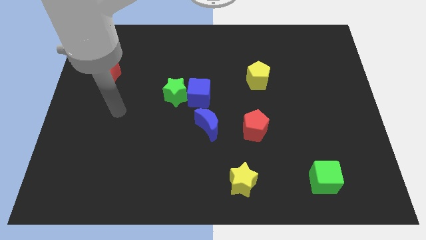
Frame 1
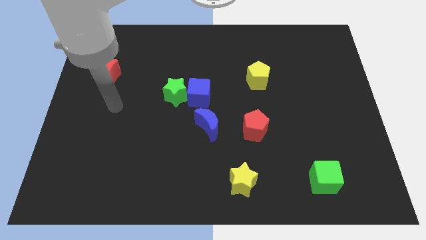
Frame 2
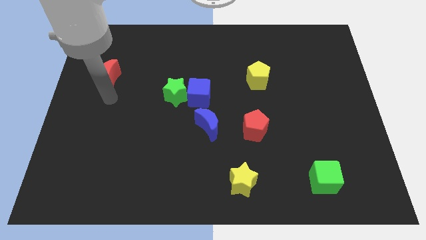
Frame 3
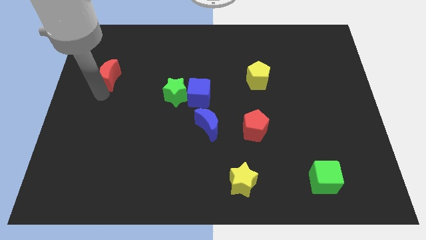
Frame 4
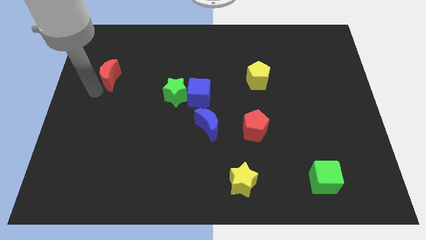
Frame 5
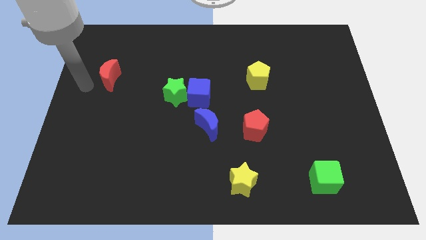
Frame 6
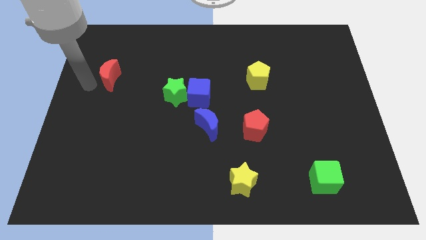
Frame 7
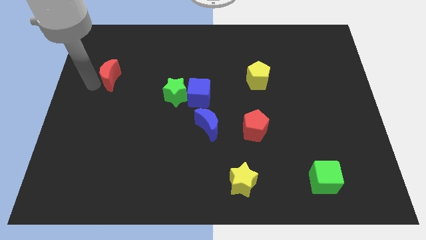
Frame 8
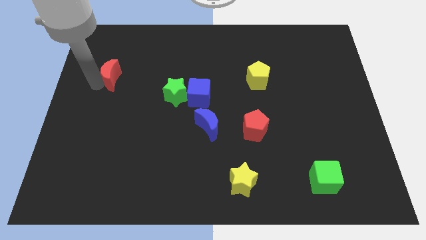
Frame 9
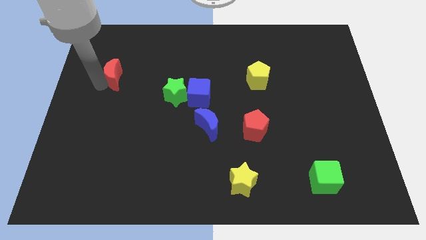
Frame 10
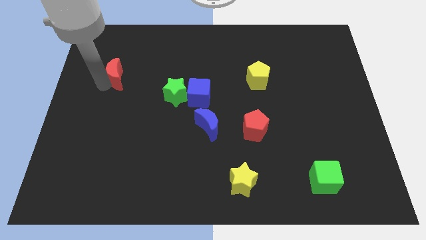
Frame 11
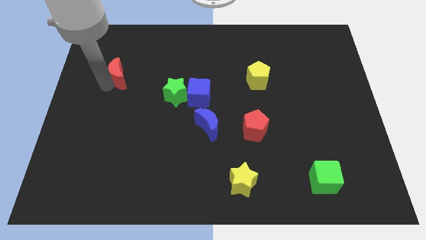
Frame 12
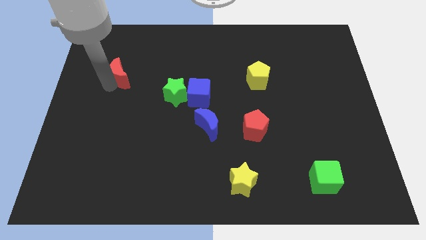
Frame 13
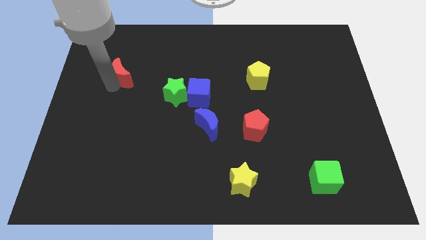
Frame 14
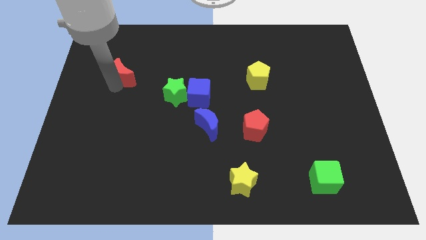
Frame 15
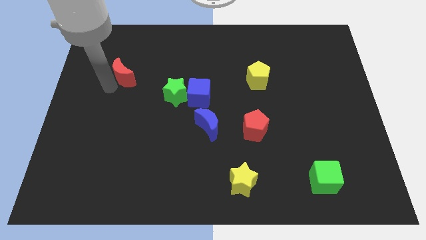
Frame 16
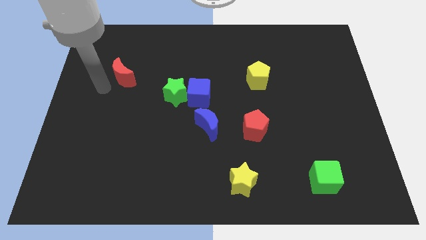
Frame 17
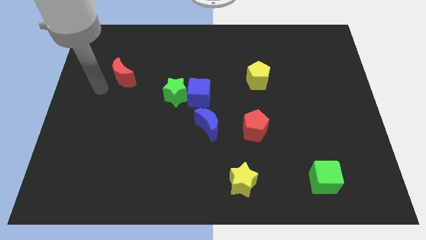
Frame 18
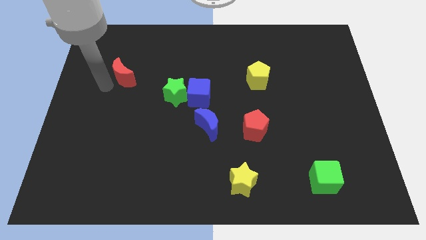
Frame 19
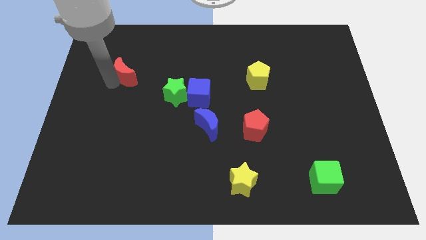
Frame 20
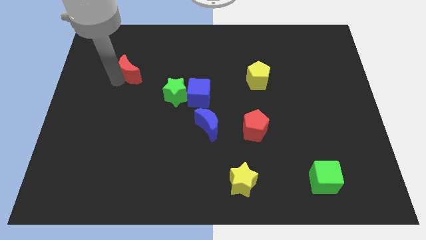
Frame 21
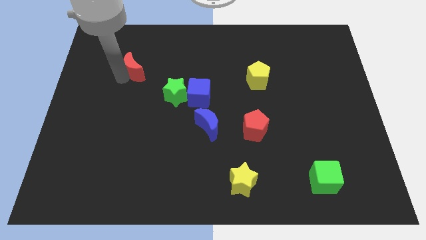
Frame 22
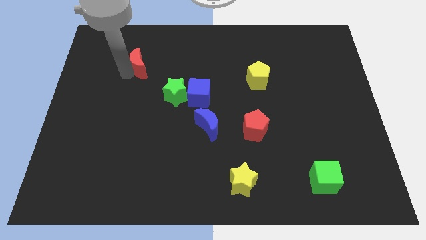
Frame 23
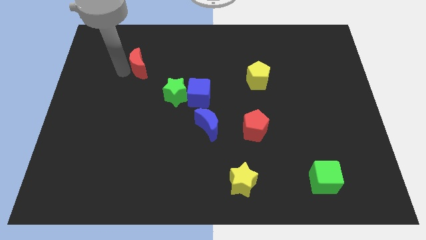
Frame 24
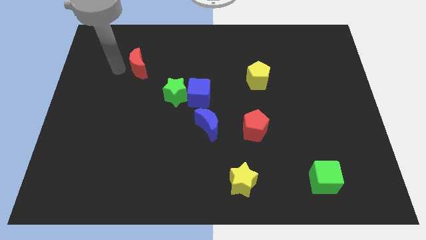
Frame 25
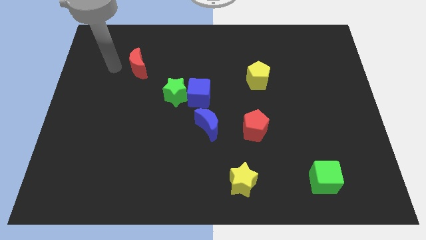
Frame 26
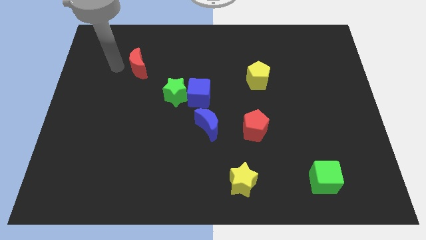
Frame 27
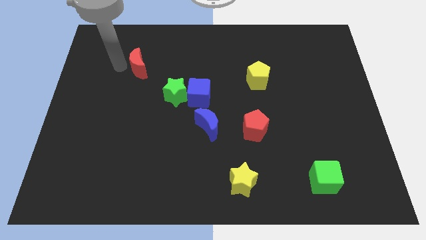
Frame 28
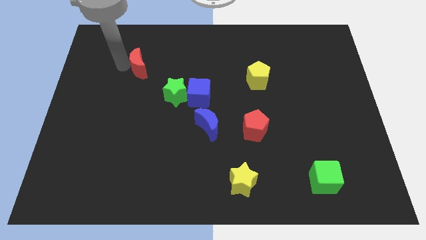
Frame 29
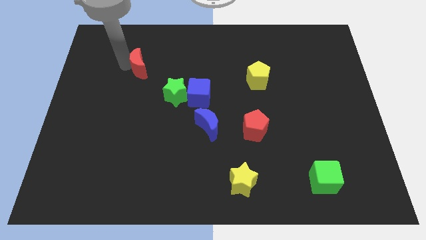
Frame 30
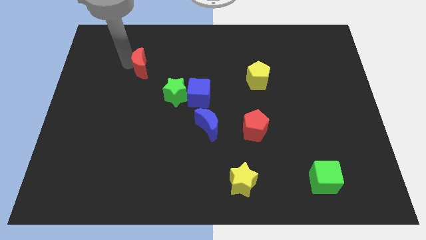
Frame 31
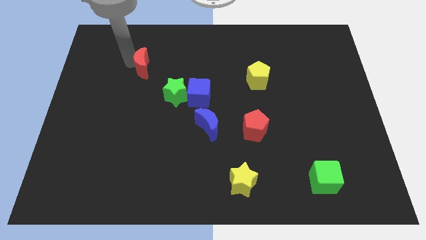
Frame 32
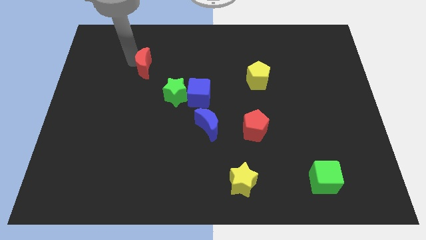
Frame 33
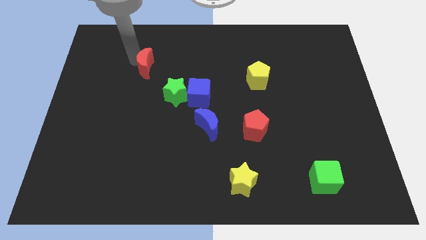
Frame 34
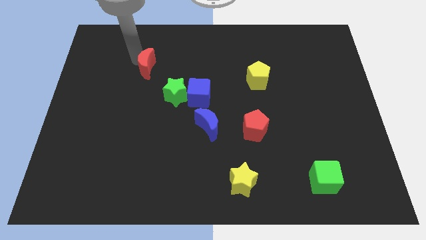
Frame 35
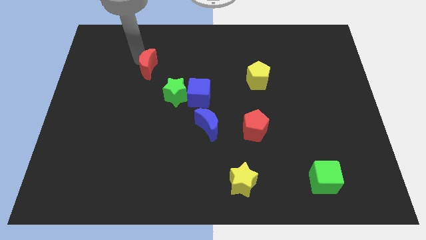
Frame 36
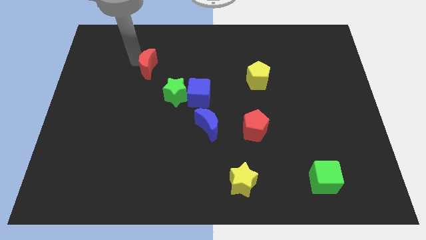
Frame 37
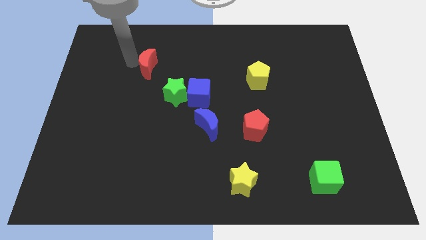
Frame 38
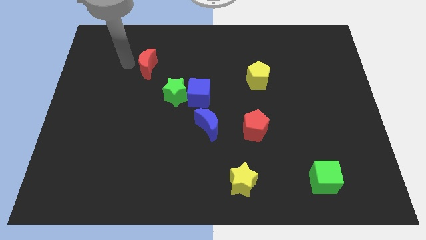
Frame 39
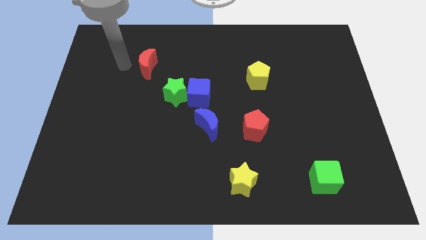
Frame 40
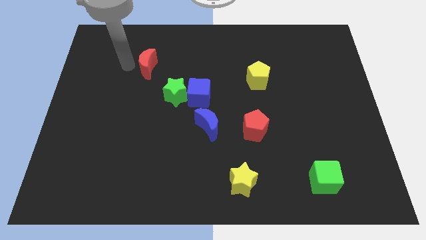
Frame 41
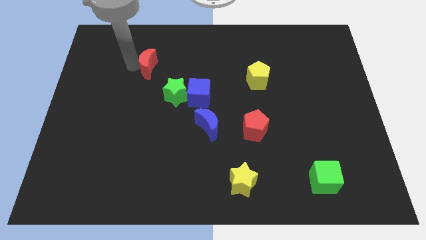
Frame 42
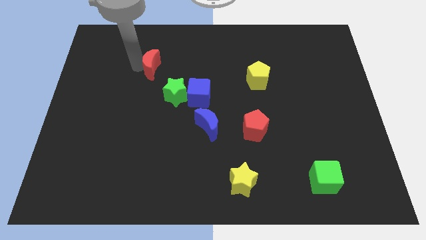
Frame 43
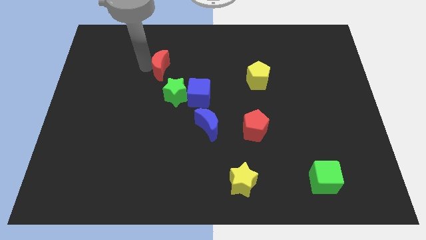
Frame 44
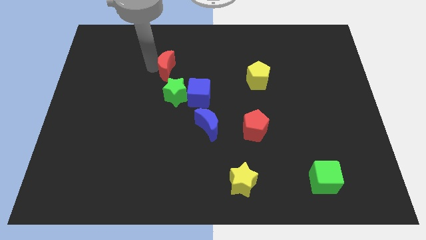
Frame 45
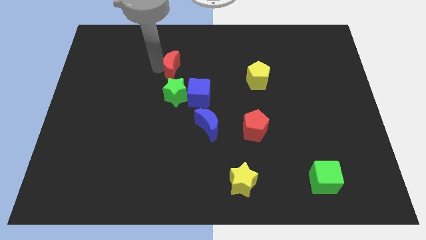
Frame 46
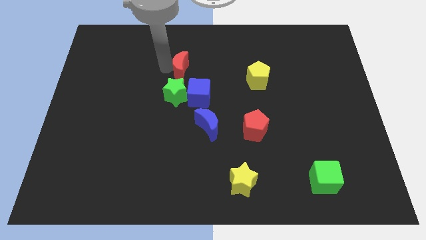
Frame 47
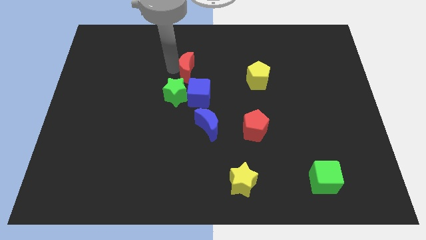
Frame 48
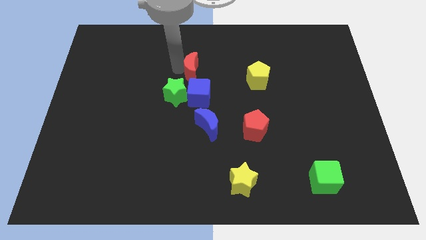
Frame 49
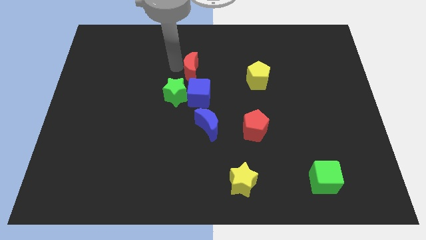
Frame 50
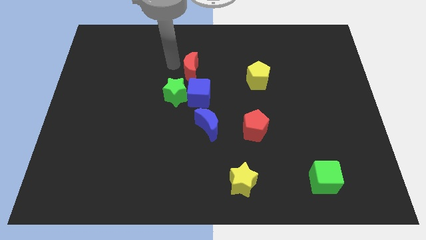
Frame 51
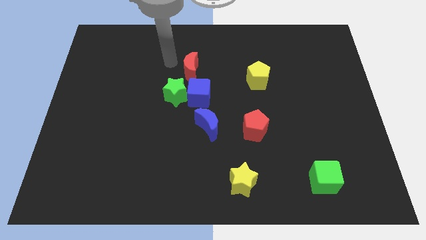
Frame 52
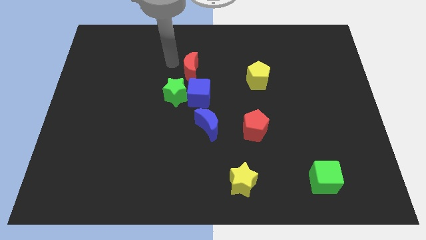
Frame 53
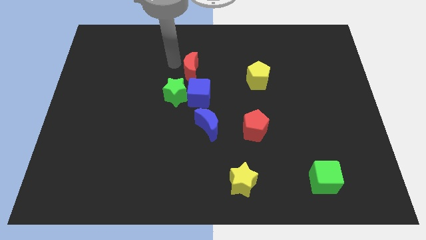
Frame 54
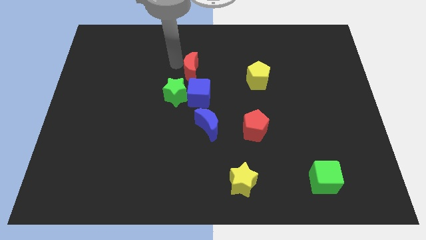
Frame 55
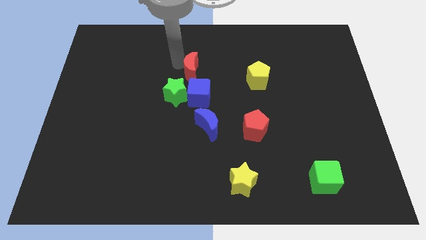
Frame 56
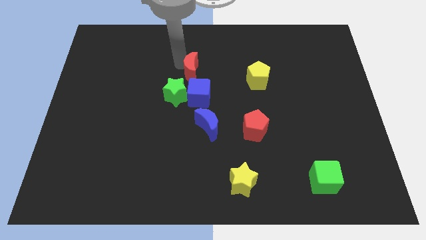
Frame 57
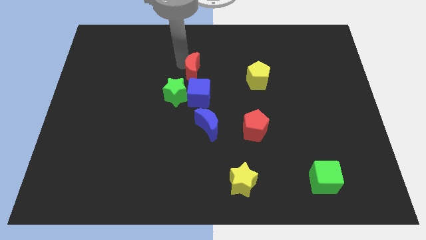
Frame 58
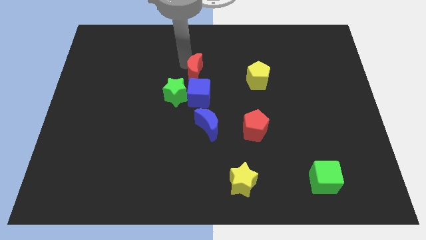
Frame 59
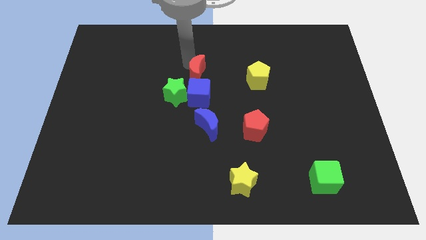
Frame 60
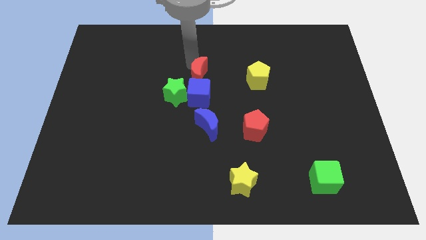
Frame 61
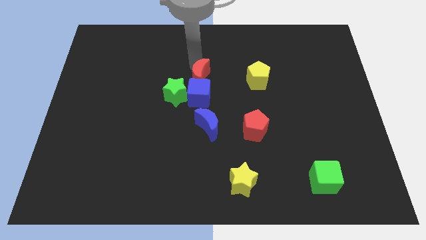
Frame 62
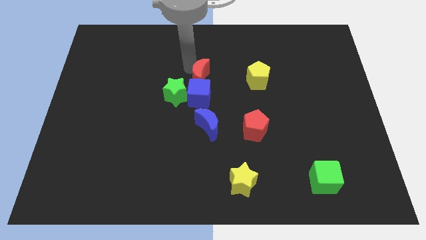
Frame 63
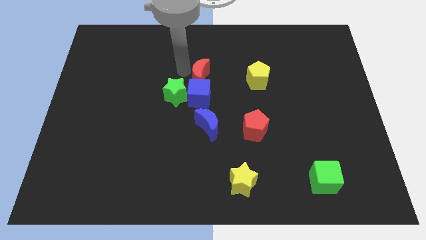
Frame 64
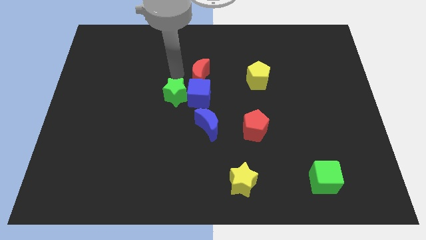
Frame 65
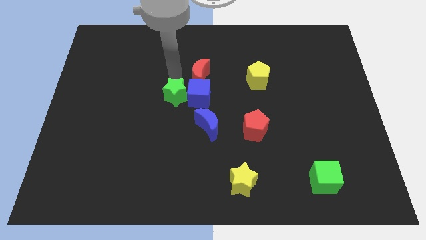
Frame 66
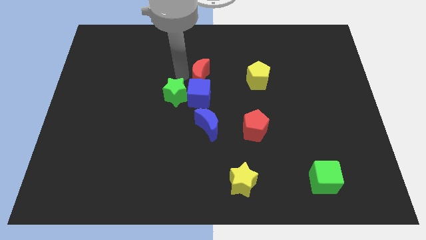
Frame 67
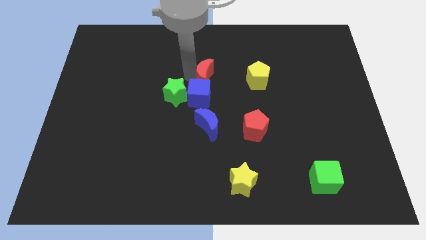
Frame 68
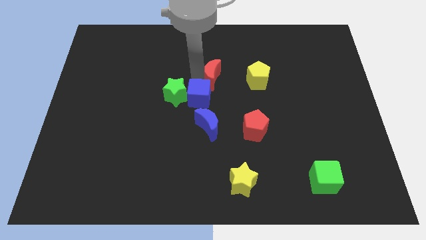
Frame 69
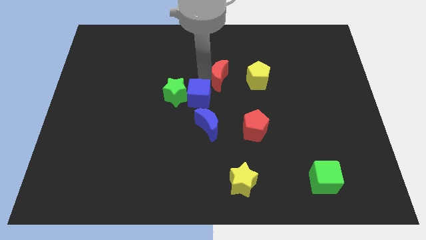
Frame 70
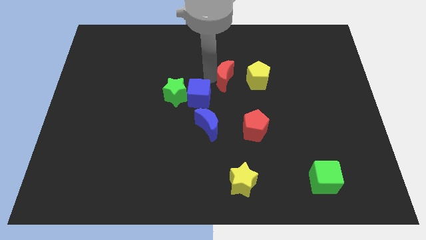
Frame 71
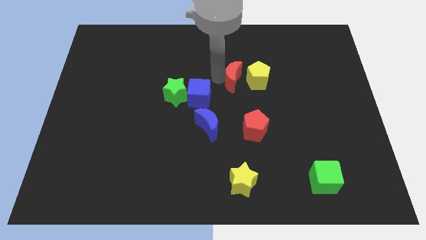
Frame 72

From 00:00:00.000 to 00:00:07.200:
move the red moon next to the yellow pentagon

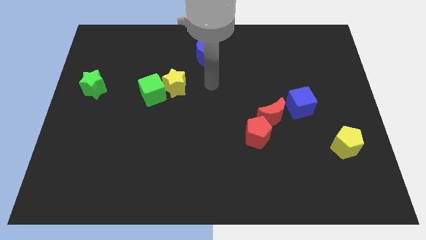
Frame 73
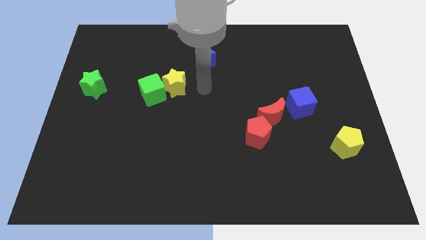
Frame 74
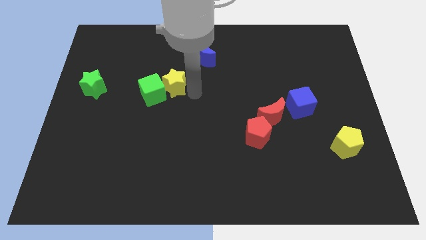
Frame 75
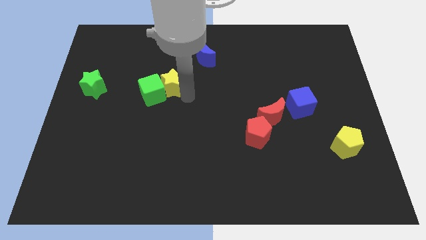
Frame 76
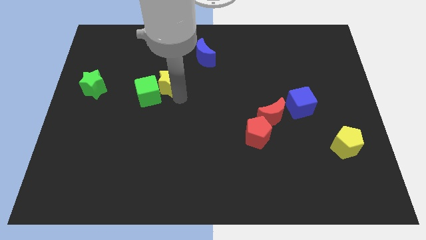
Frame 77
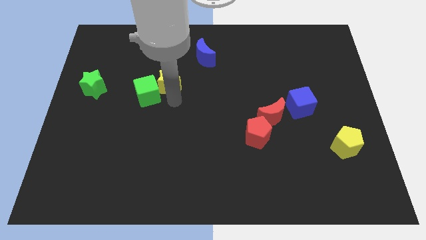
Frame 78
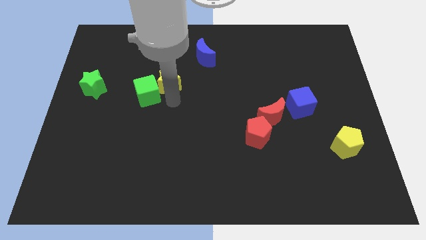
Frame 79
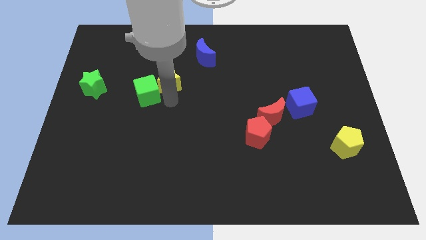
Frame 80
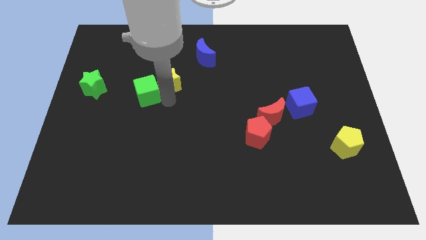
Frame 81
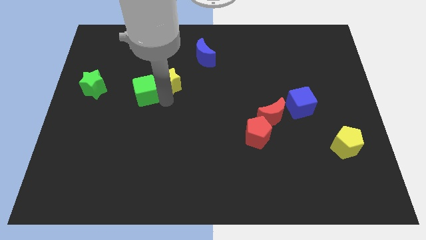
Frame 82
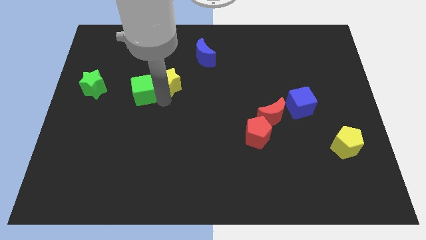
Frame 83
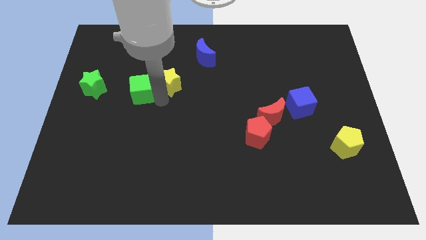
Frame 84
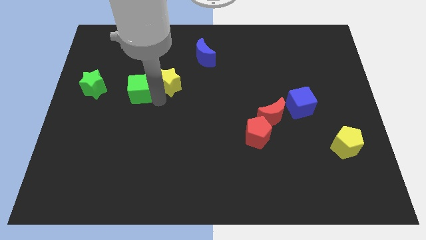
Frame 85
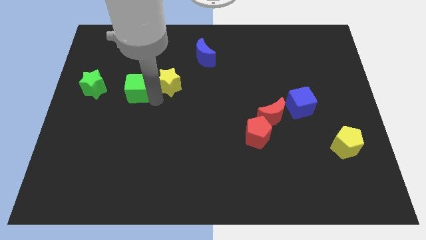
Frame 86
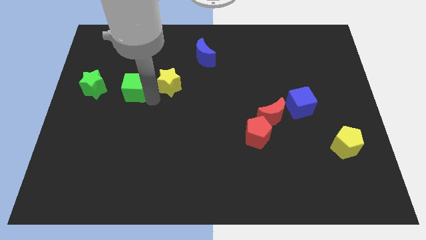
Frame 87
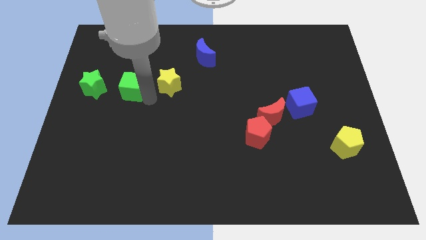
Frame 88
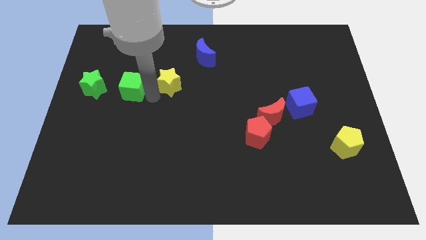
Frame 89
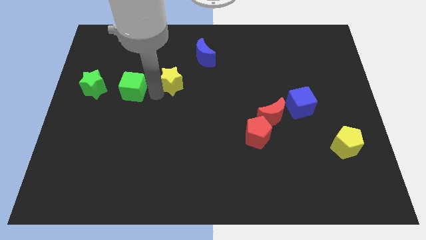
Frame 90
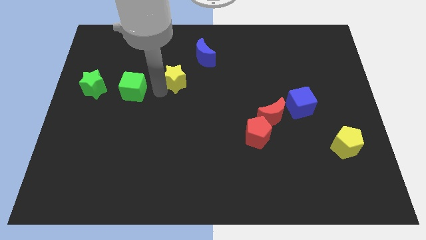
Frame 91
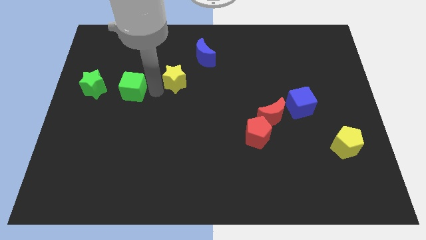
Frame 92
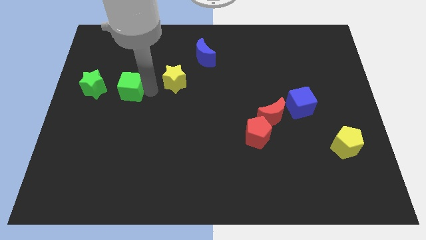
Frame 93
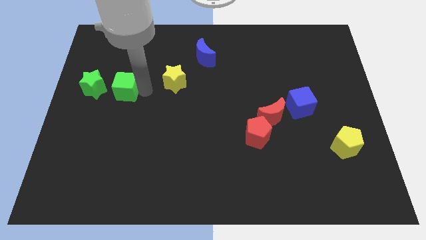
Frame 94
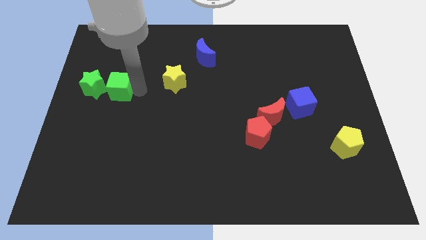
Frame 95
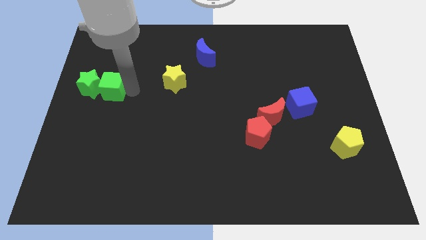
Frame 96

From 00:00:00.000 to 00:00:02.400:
put the green cube to the green star
